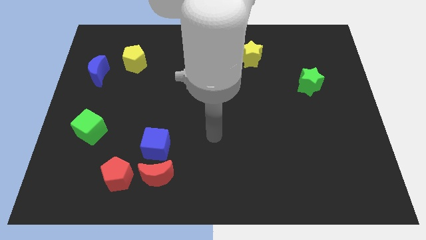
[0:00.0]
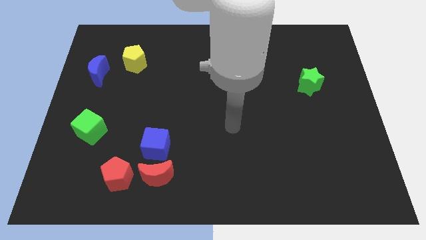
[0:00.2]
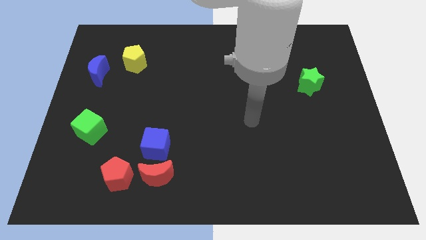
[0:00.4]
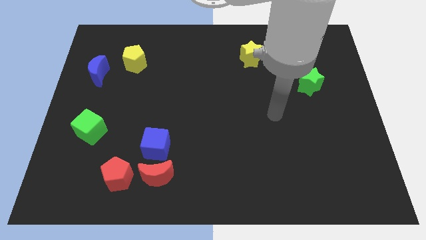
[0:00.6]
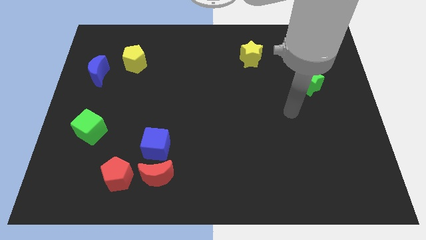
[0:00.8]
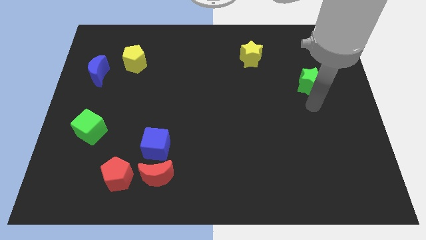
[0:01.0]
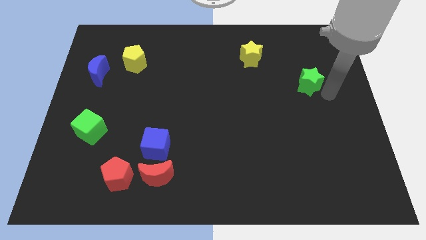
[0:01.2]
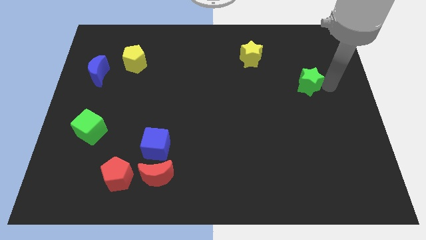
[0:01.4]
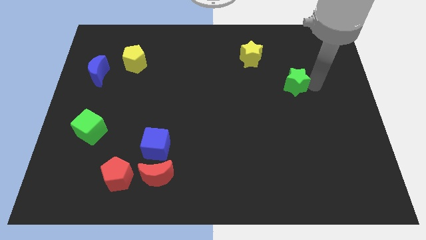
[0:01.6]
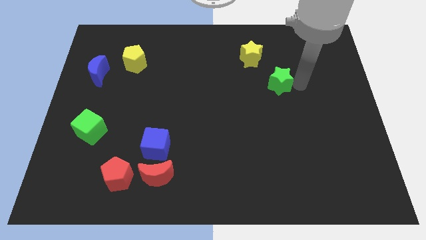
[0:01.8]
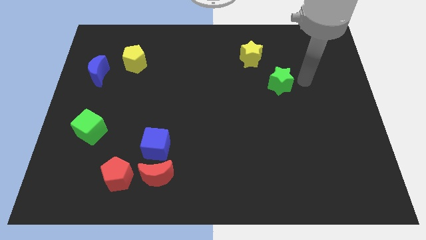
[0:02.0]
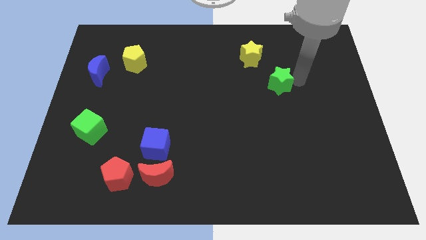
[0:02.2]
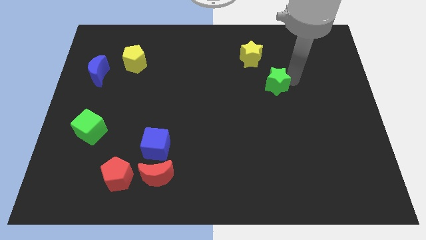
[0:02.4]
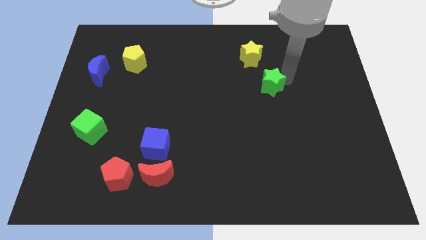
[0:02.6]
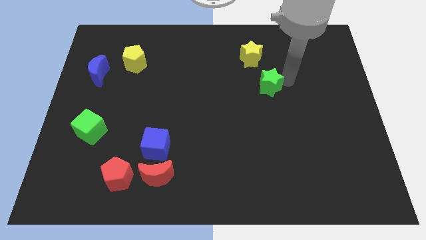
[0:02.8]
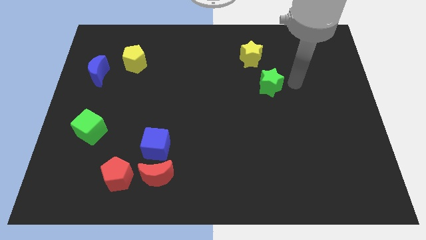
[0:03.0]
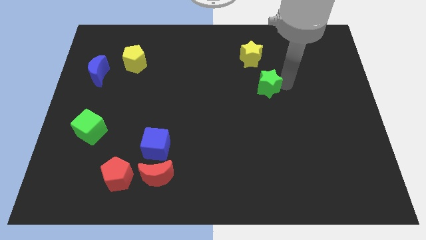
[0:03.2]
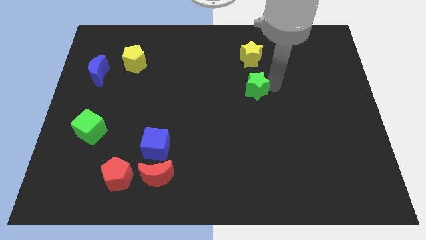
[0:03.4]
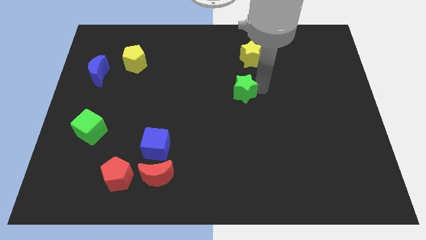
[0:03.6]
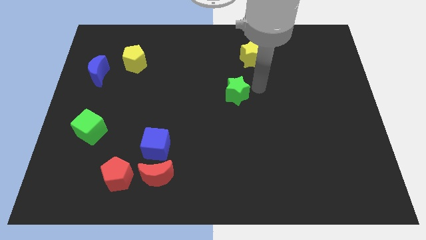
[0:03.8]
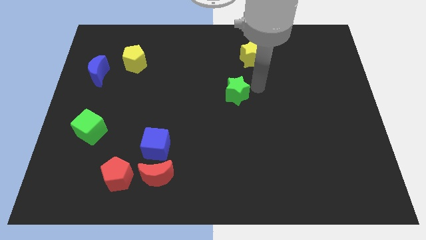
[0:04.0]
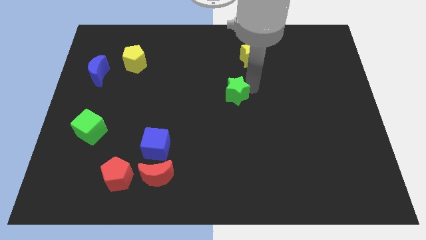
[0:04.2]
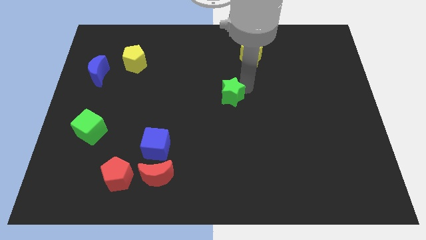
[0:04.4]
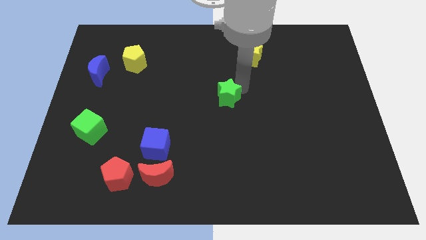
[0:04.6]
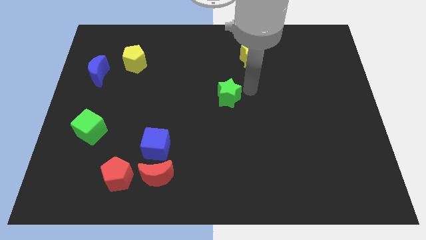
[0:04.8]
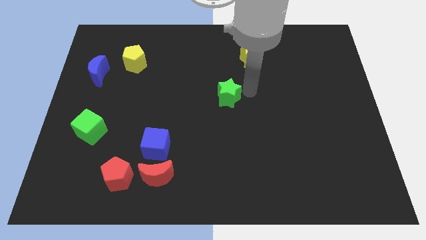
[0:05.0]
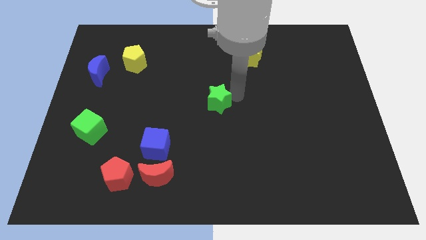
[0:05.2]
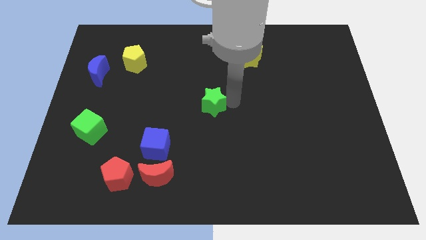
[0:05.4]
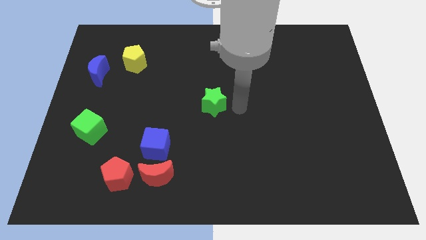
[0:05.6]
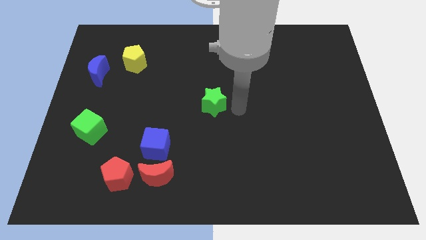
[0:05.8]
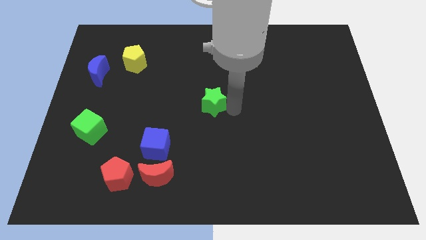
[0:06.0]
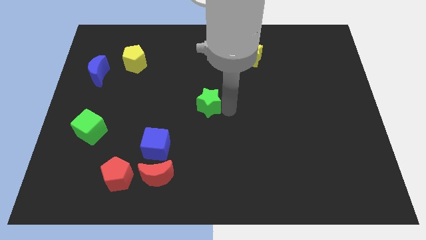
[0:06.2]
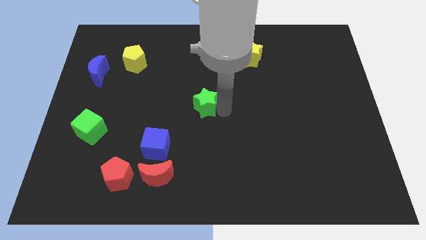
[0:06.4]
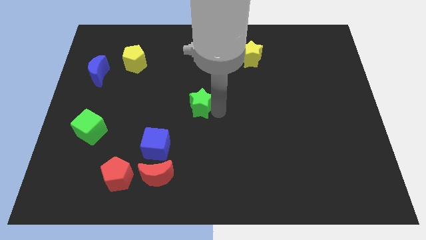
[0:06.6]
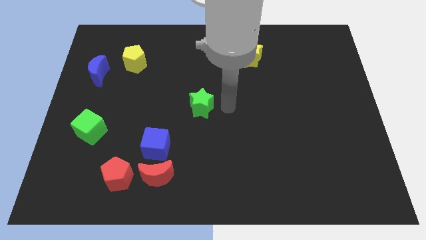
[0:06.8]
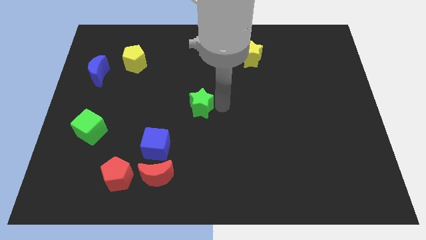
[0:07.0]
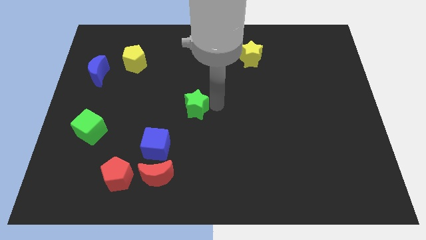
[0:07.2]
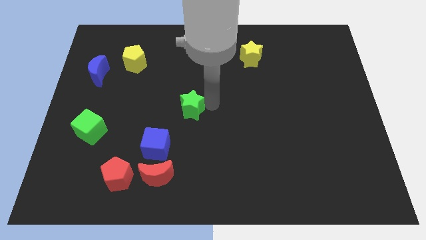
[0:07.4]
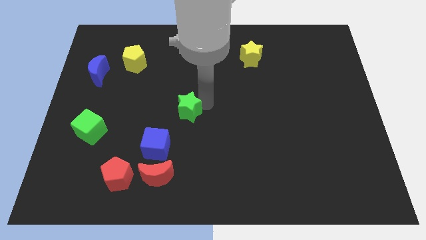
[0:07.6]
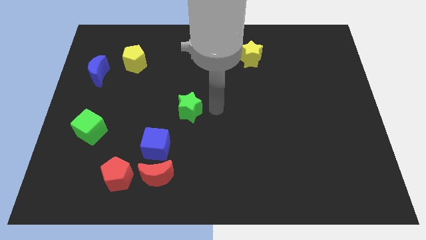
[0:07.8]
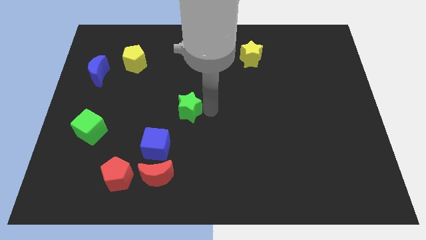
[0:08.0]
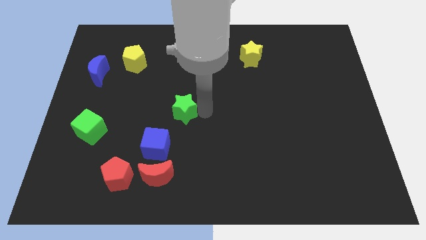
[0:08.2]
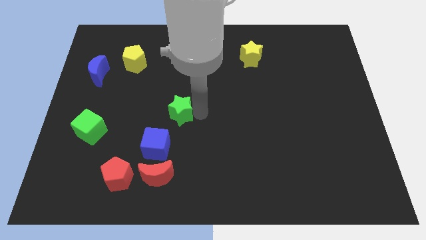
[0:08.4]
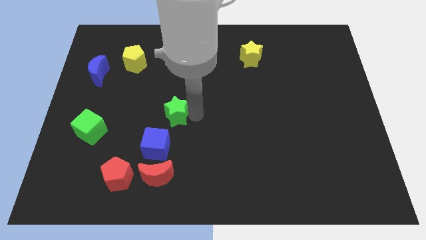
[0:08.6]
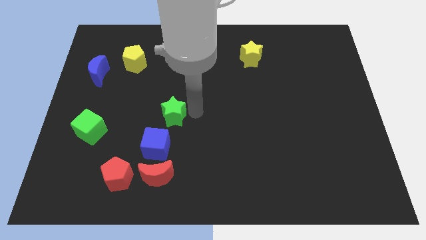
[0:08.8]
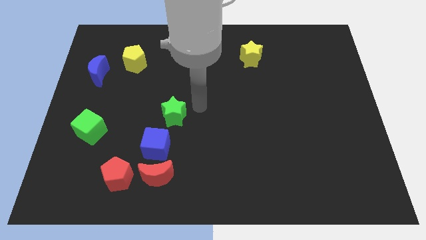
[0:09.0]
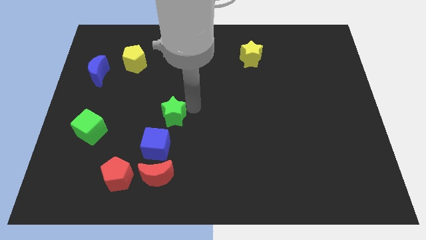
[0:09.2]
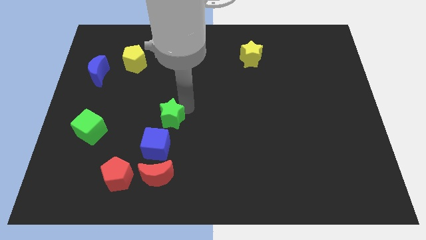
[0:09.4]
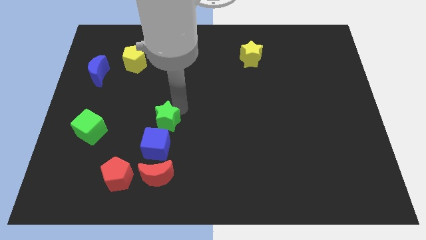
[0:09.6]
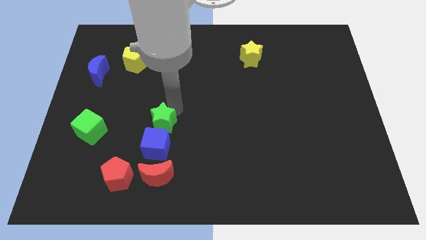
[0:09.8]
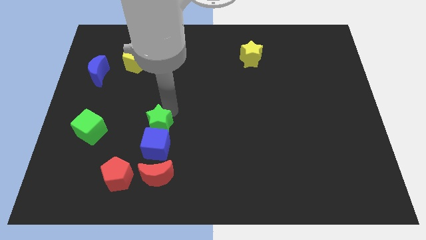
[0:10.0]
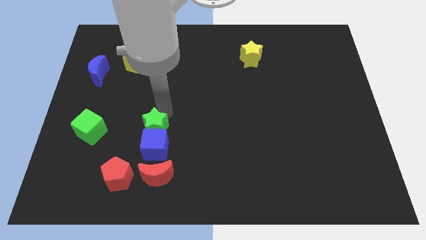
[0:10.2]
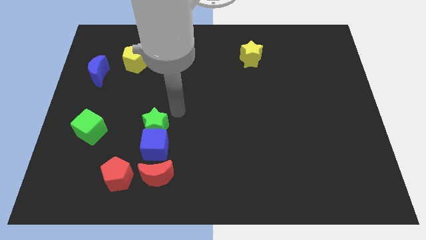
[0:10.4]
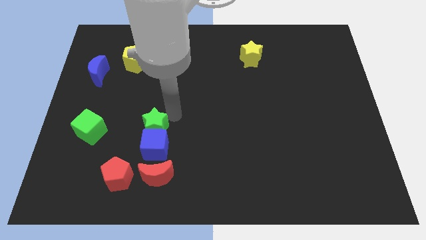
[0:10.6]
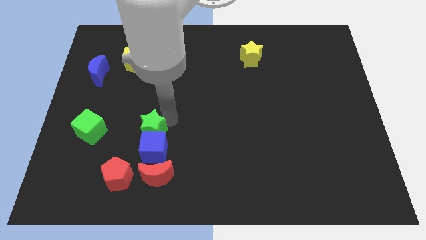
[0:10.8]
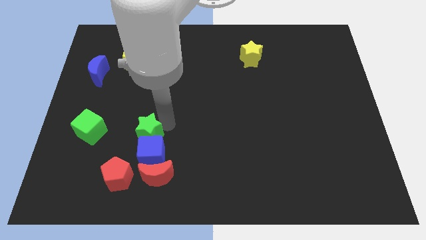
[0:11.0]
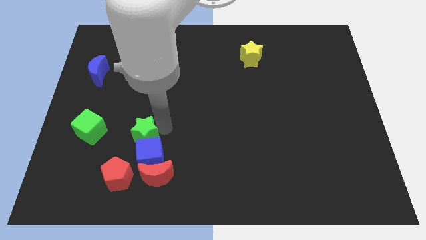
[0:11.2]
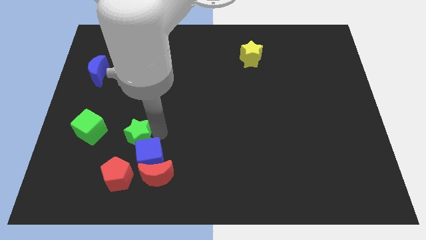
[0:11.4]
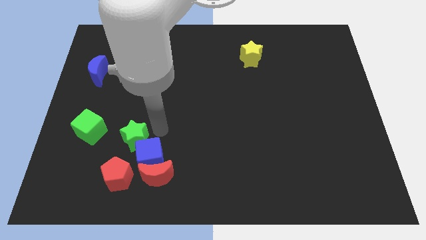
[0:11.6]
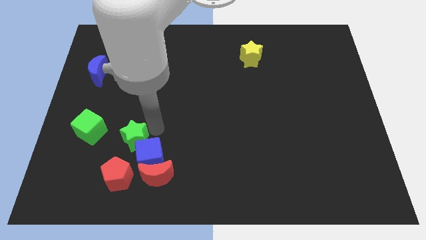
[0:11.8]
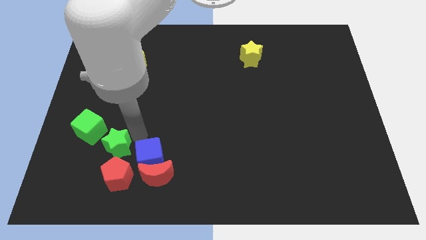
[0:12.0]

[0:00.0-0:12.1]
push the green star to the top left side of the red pentagon

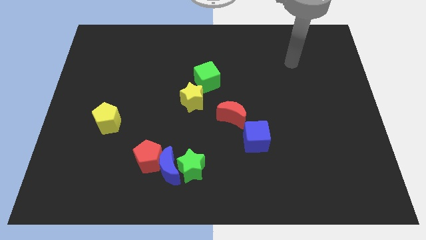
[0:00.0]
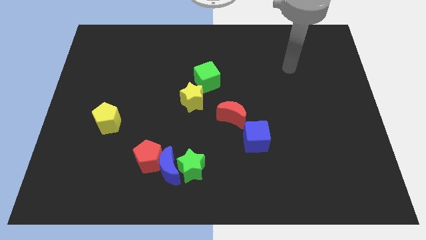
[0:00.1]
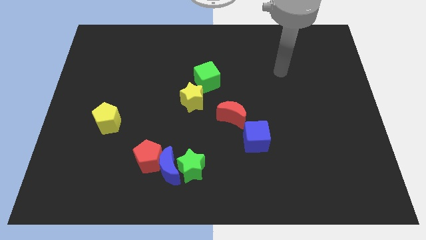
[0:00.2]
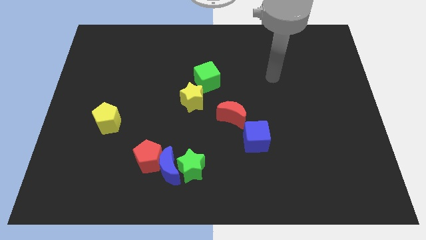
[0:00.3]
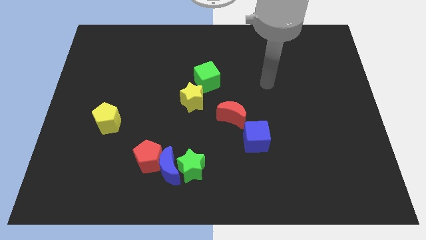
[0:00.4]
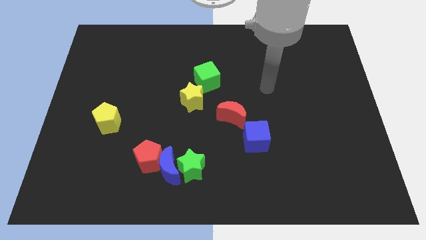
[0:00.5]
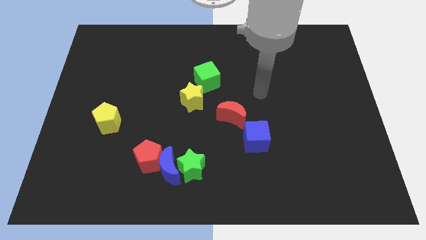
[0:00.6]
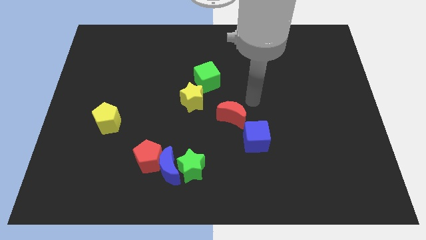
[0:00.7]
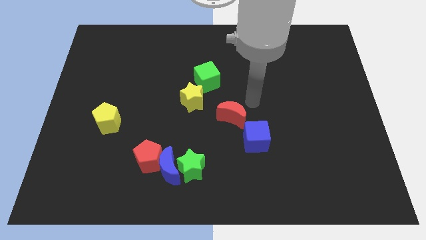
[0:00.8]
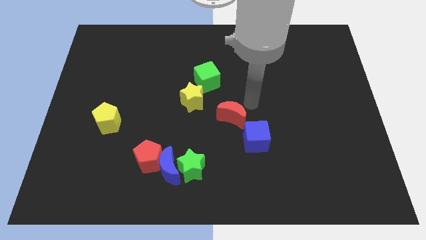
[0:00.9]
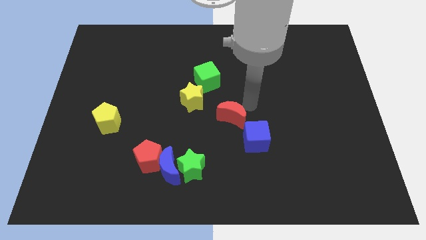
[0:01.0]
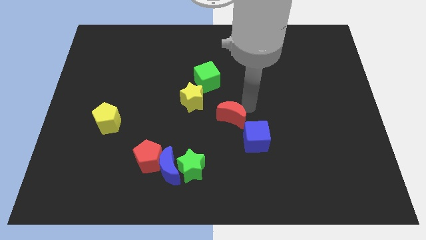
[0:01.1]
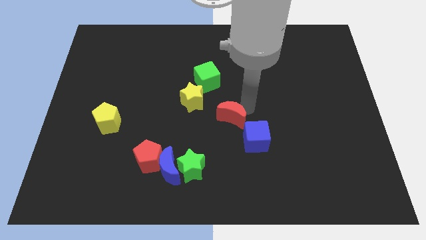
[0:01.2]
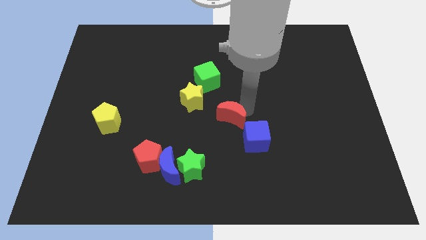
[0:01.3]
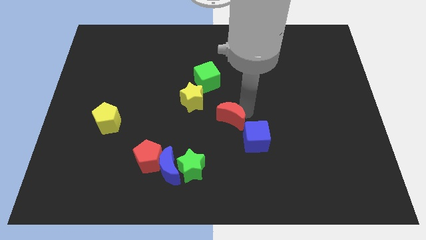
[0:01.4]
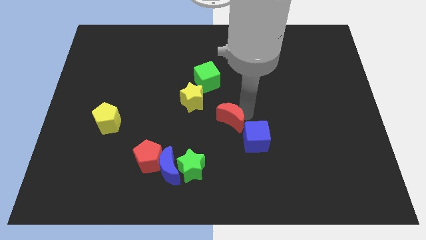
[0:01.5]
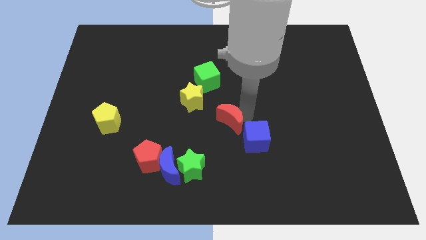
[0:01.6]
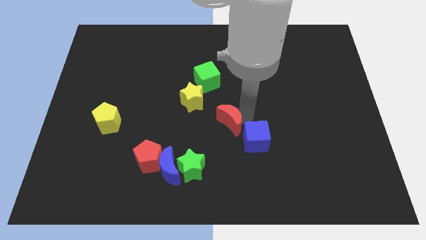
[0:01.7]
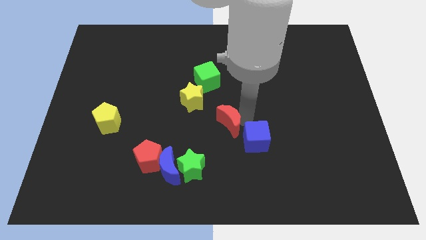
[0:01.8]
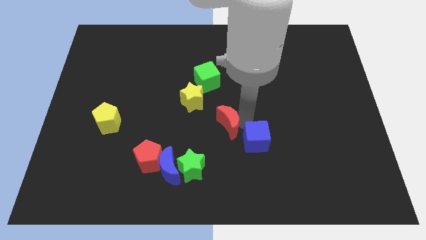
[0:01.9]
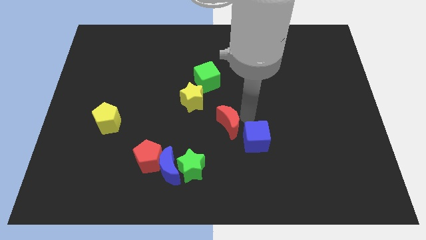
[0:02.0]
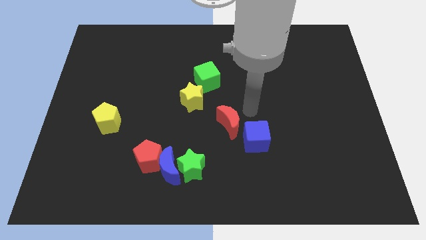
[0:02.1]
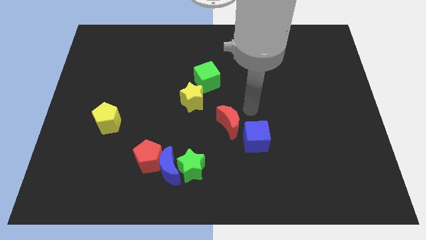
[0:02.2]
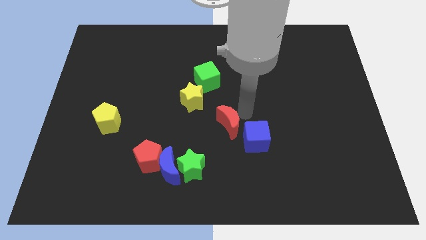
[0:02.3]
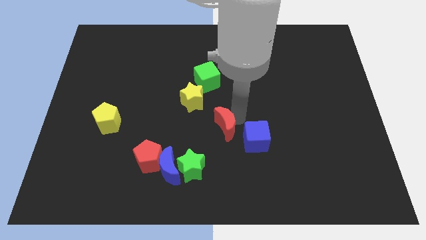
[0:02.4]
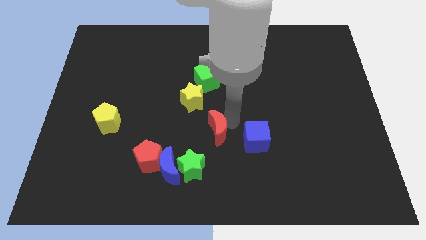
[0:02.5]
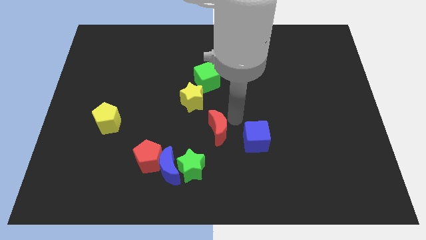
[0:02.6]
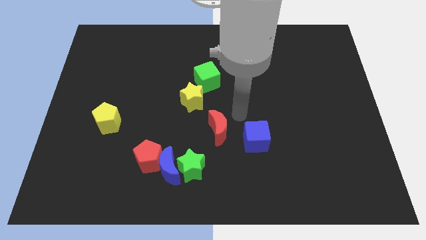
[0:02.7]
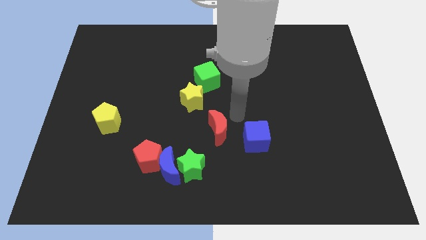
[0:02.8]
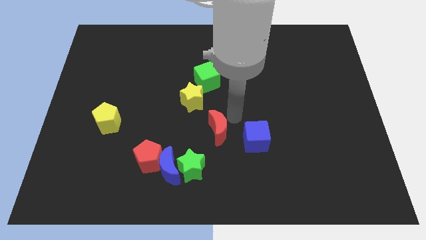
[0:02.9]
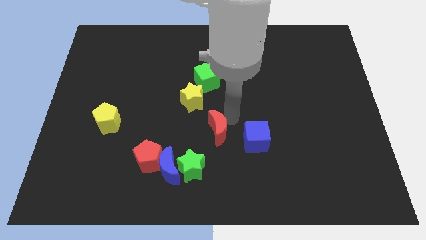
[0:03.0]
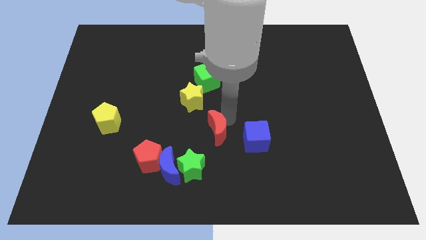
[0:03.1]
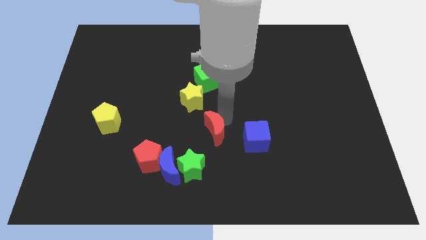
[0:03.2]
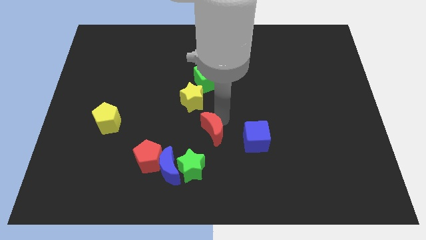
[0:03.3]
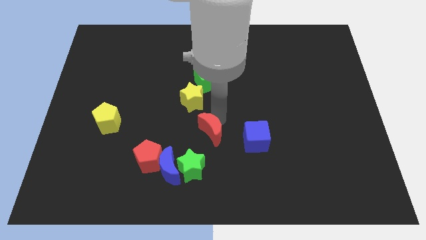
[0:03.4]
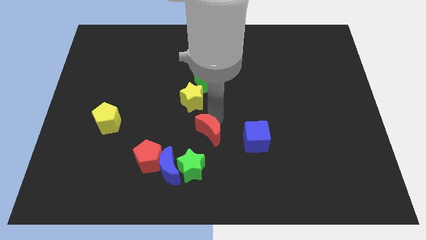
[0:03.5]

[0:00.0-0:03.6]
slide the red moon to the top right of the blue moon
